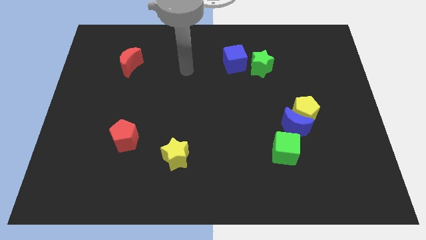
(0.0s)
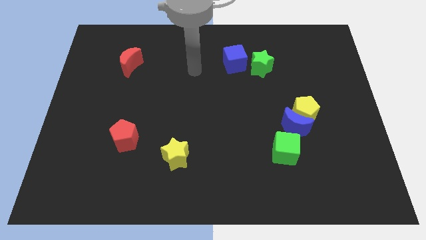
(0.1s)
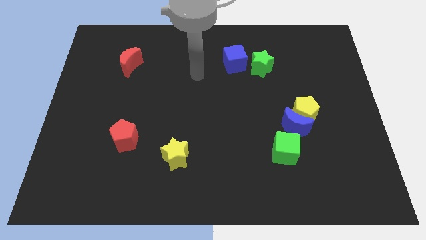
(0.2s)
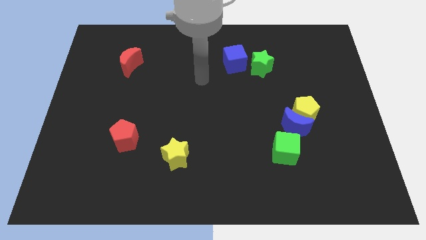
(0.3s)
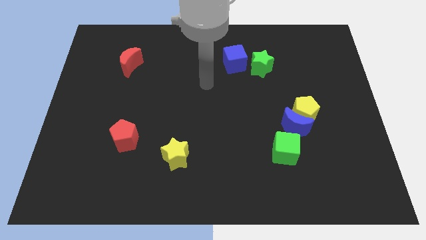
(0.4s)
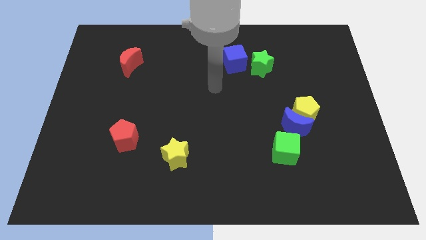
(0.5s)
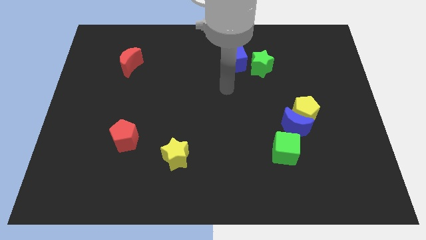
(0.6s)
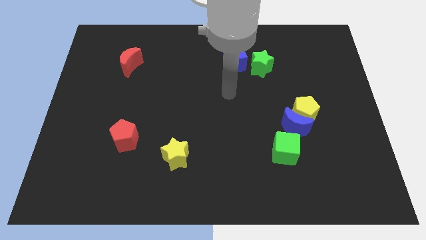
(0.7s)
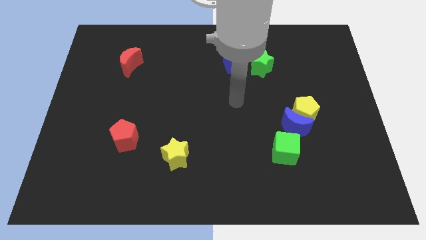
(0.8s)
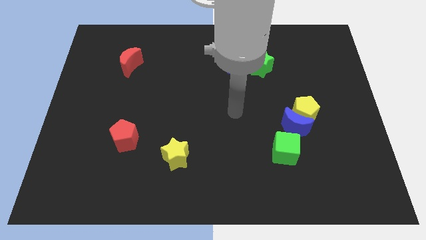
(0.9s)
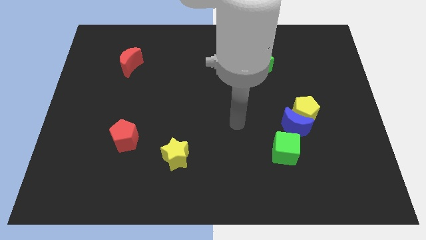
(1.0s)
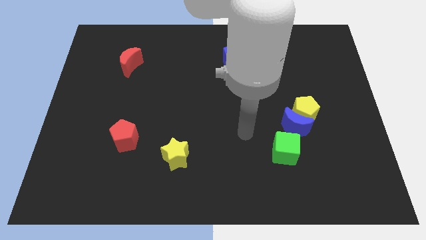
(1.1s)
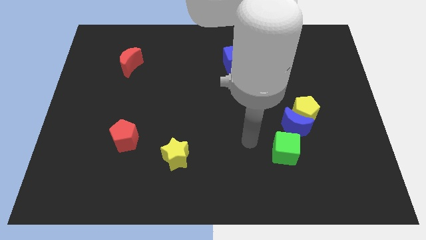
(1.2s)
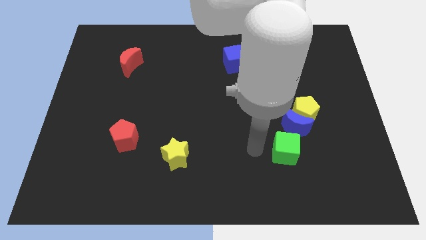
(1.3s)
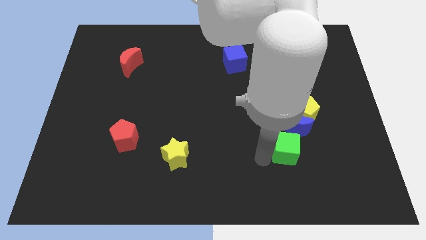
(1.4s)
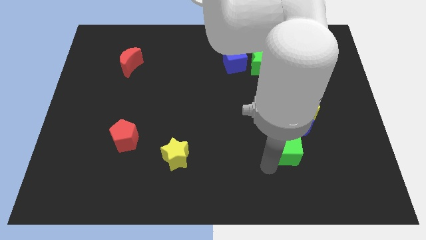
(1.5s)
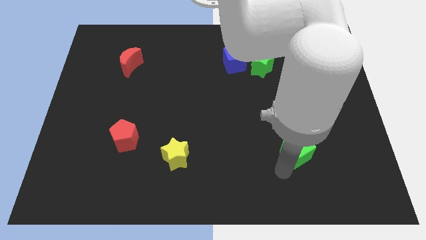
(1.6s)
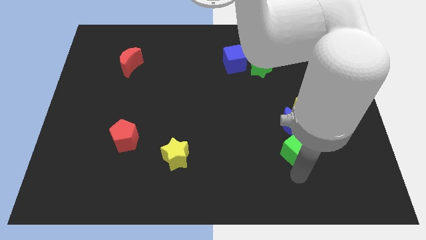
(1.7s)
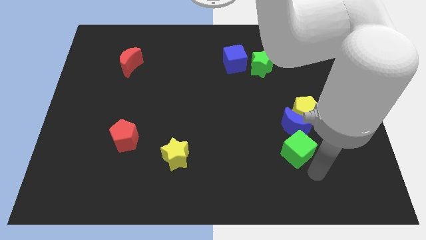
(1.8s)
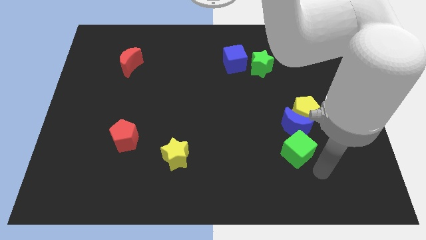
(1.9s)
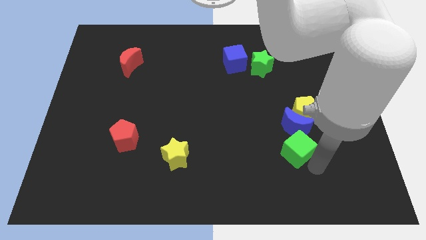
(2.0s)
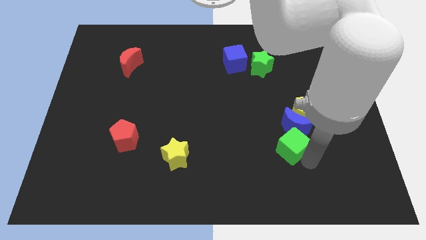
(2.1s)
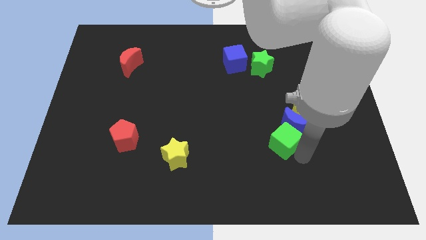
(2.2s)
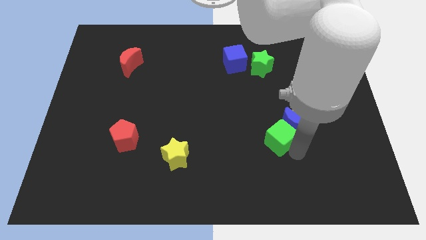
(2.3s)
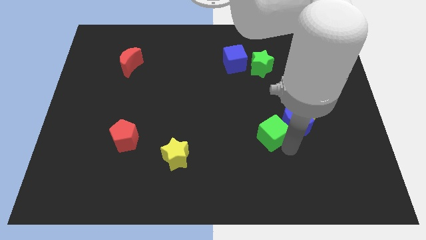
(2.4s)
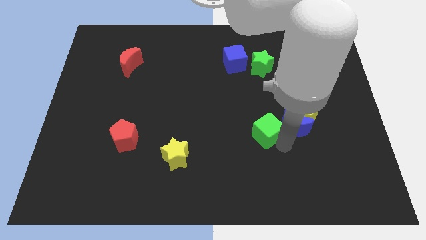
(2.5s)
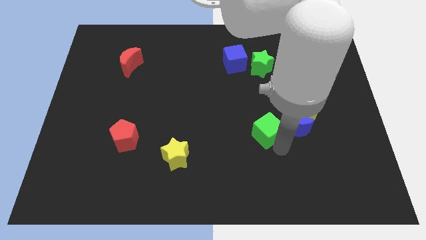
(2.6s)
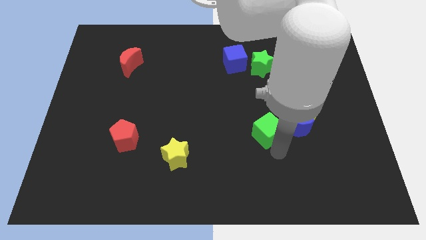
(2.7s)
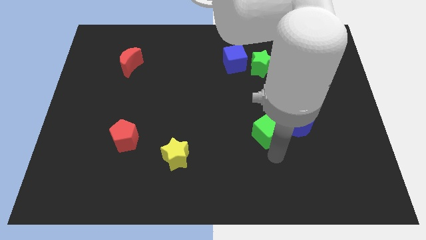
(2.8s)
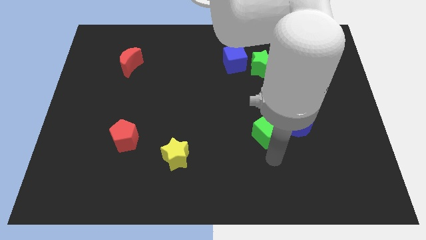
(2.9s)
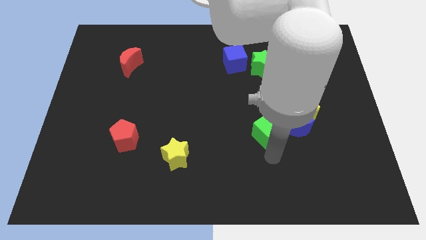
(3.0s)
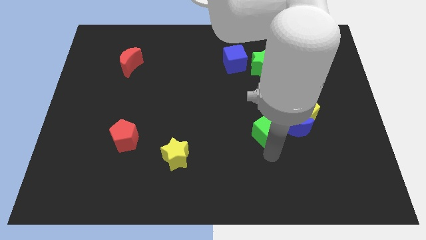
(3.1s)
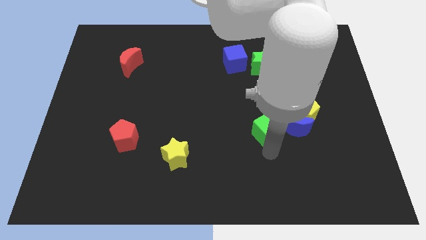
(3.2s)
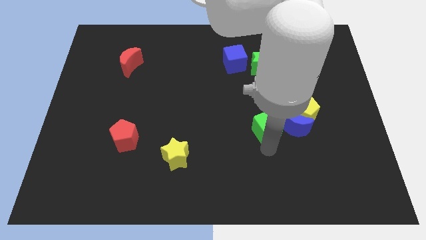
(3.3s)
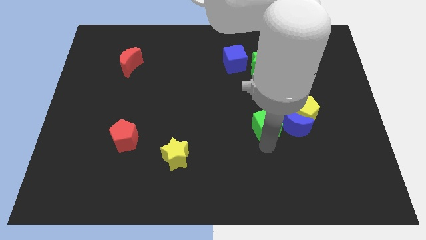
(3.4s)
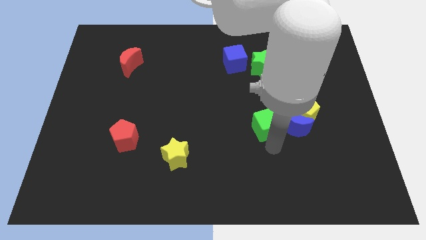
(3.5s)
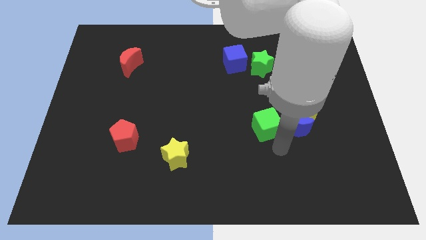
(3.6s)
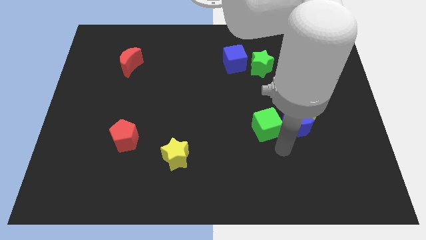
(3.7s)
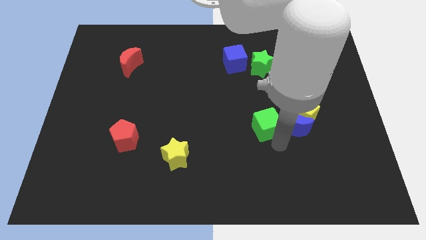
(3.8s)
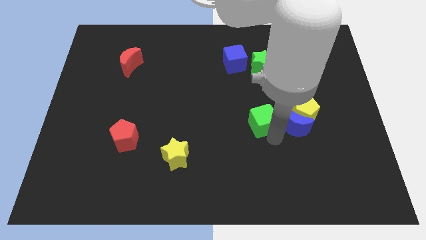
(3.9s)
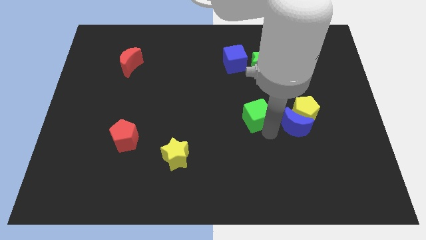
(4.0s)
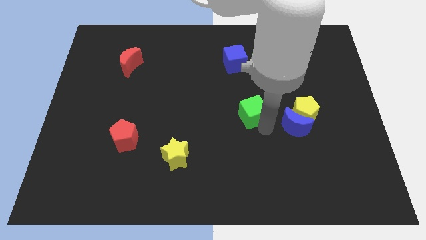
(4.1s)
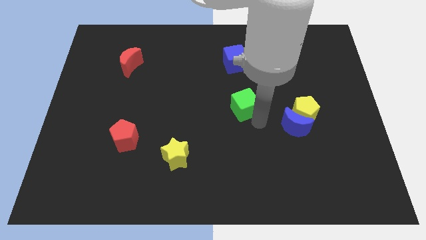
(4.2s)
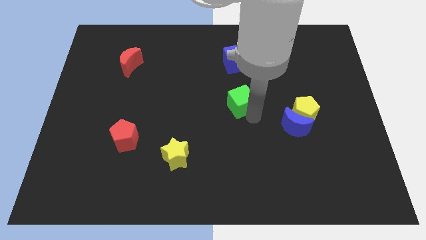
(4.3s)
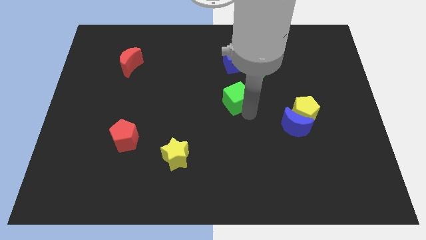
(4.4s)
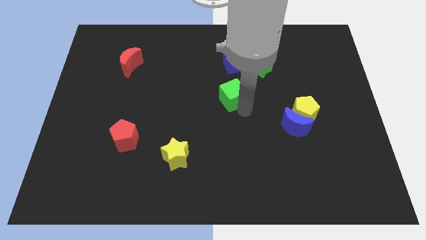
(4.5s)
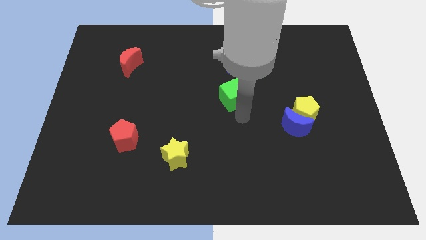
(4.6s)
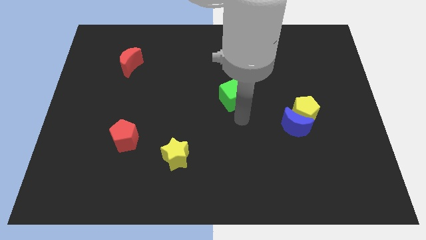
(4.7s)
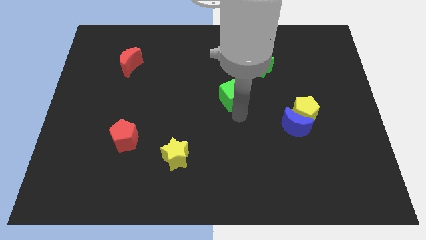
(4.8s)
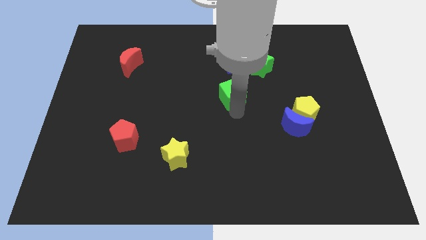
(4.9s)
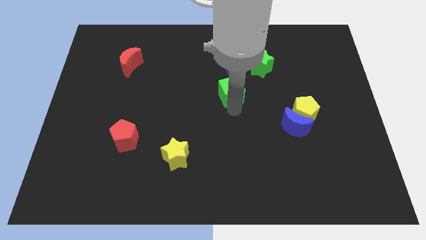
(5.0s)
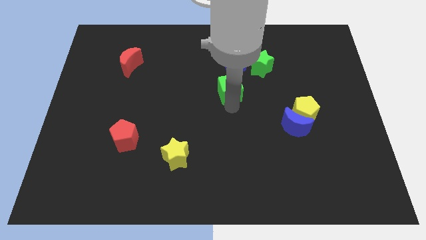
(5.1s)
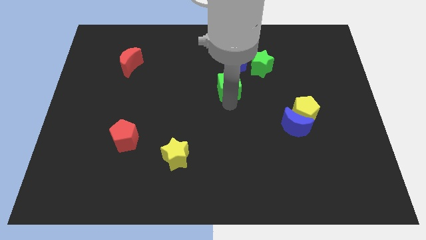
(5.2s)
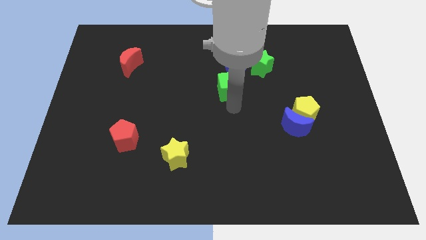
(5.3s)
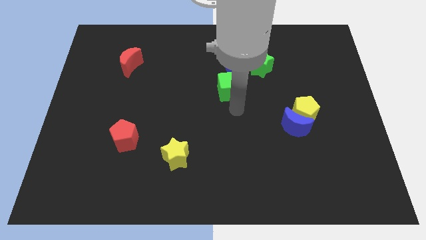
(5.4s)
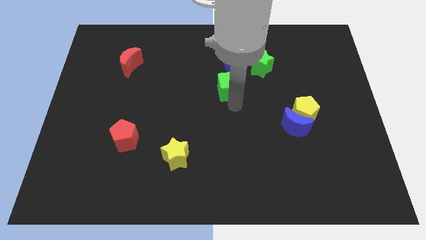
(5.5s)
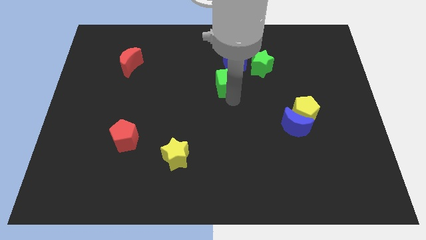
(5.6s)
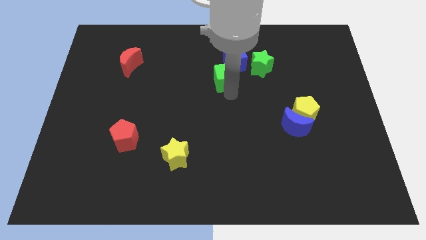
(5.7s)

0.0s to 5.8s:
push the green cube just left of the green star

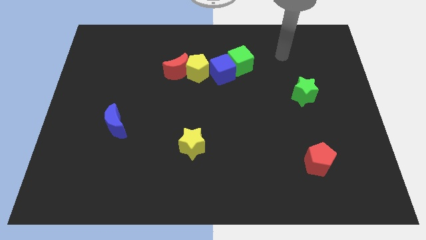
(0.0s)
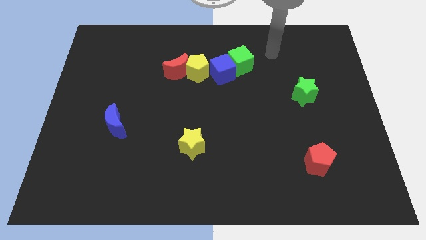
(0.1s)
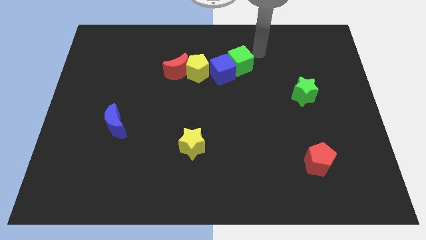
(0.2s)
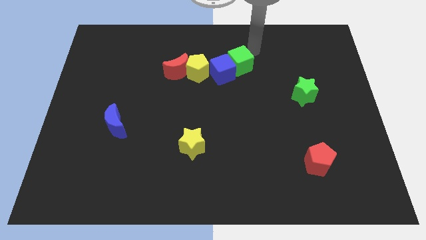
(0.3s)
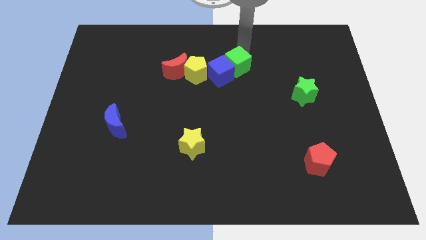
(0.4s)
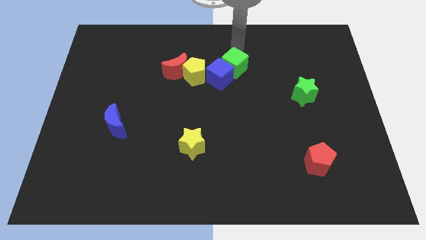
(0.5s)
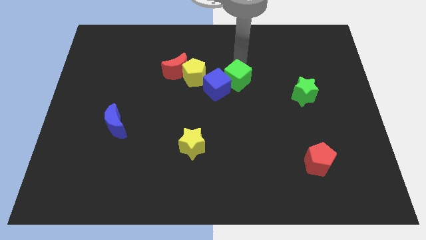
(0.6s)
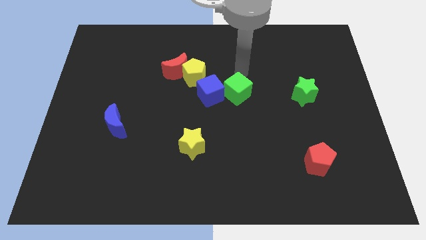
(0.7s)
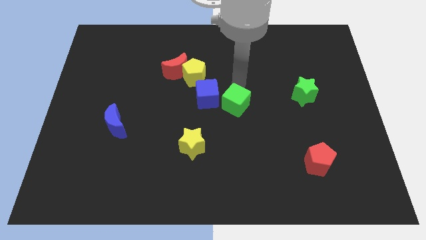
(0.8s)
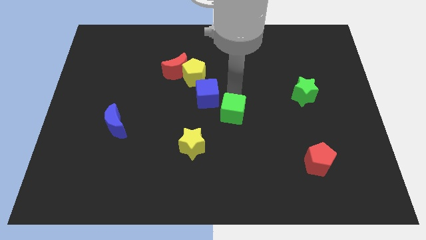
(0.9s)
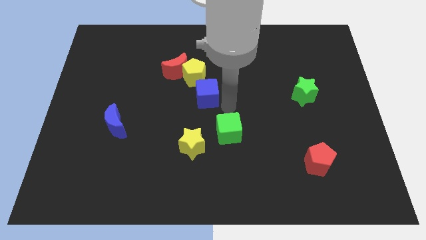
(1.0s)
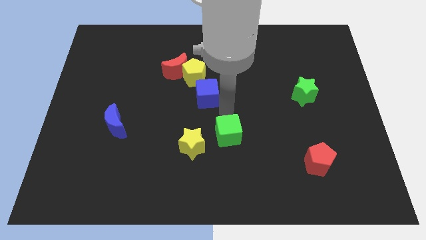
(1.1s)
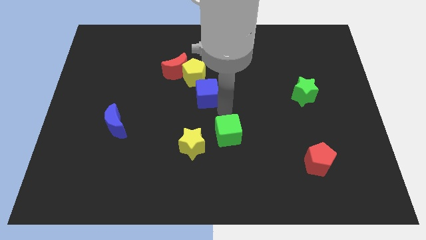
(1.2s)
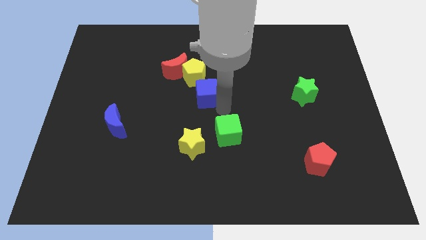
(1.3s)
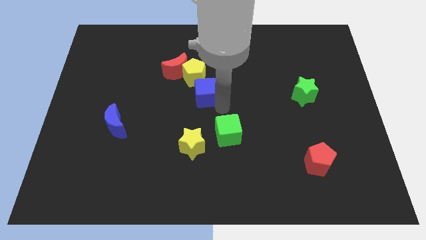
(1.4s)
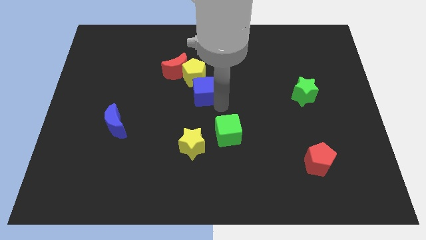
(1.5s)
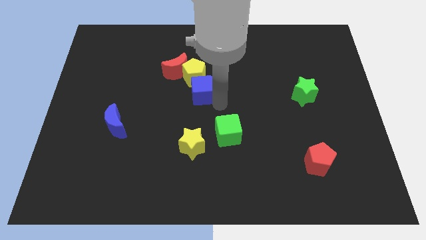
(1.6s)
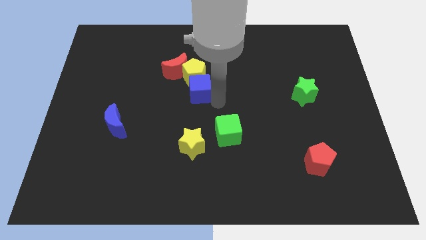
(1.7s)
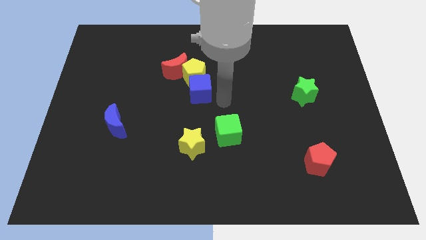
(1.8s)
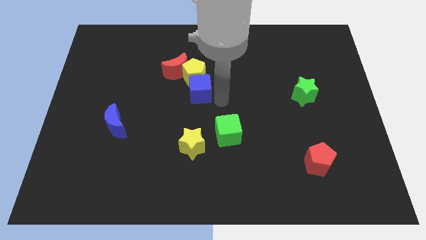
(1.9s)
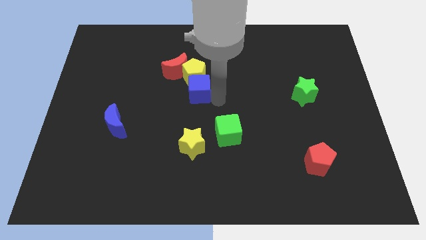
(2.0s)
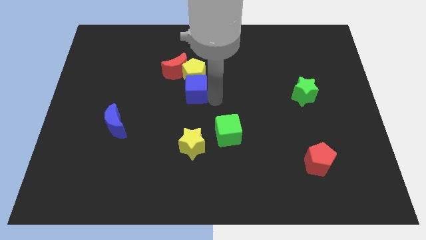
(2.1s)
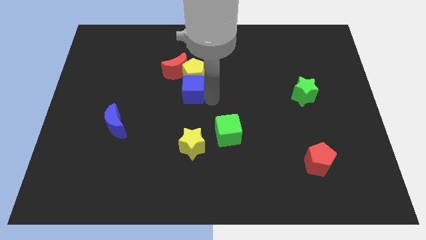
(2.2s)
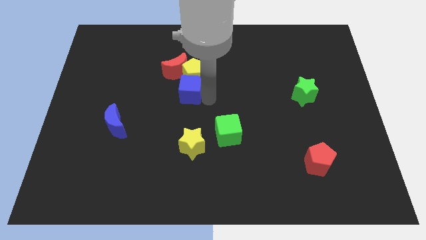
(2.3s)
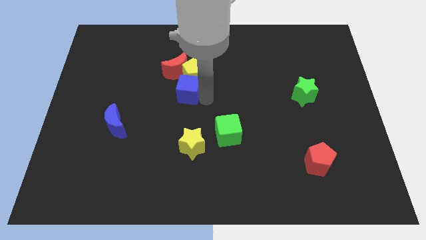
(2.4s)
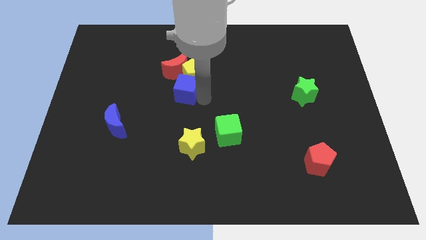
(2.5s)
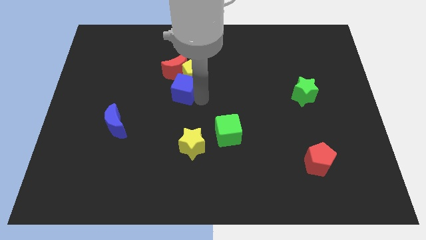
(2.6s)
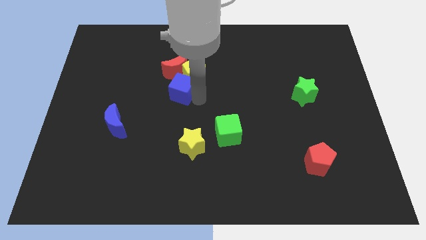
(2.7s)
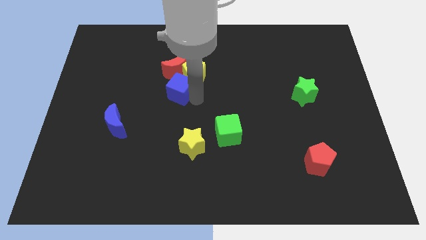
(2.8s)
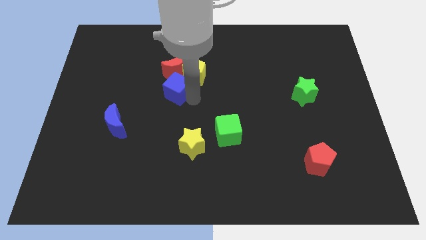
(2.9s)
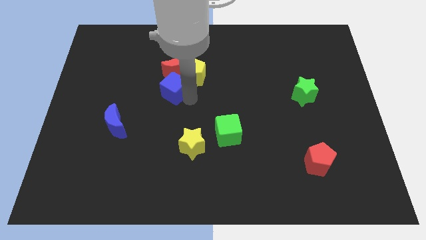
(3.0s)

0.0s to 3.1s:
slide the blue cube left of the yellow pentagon
